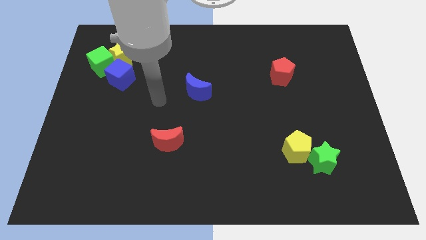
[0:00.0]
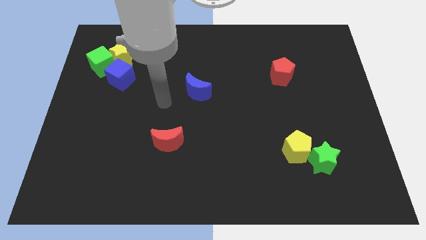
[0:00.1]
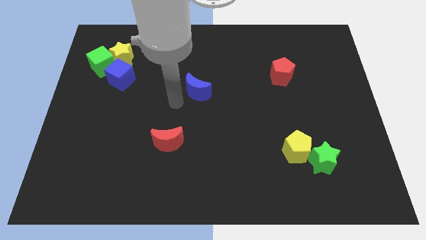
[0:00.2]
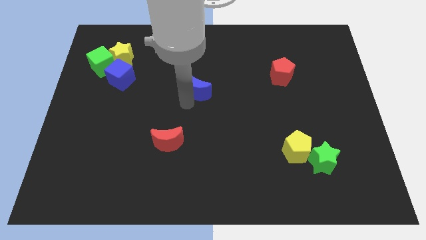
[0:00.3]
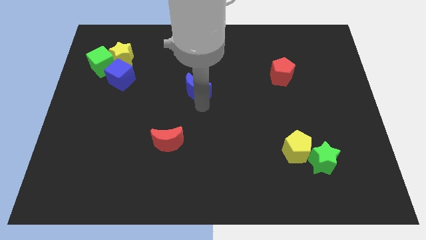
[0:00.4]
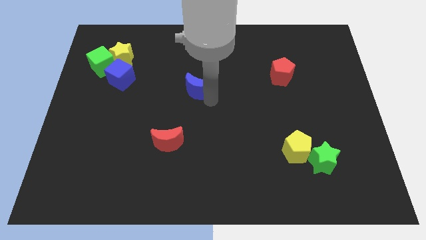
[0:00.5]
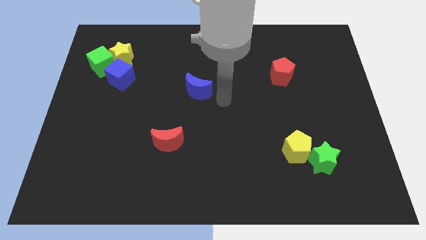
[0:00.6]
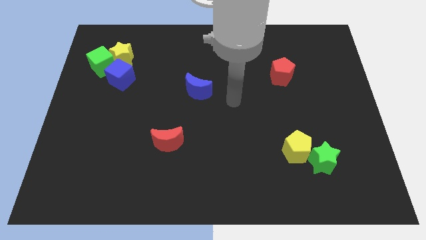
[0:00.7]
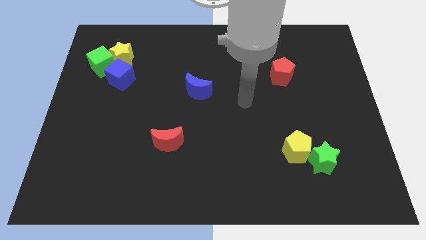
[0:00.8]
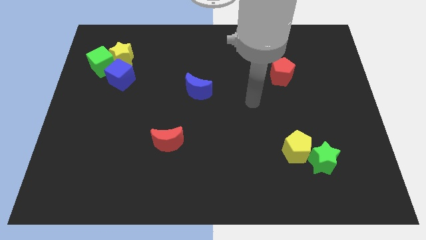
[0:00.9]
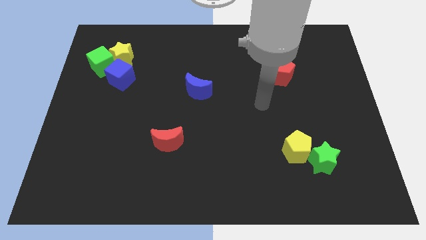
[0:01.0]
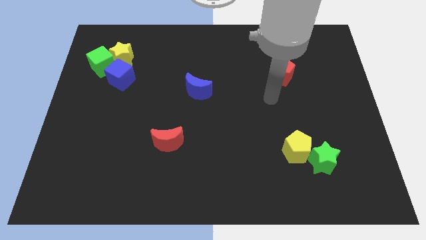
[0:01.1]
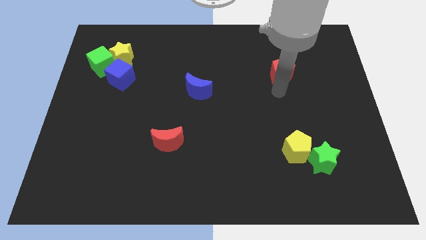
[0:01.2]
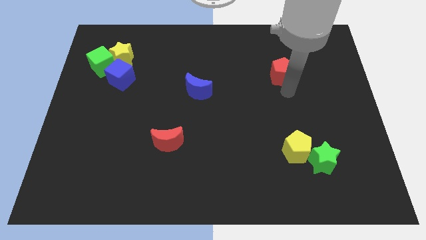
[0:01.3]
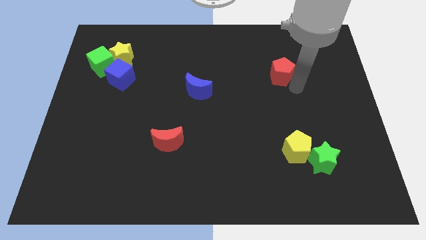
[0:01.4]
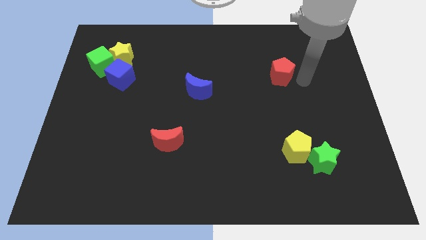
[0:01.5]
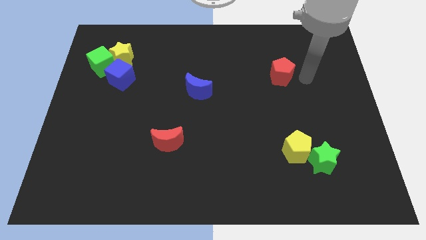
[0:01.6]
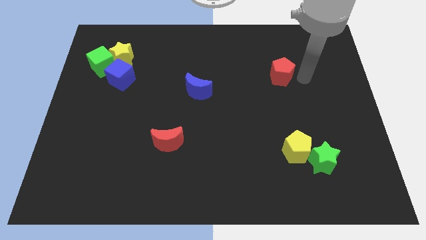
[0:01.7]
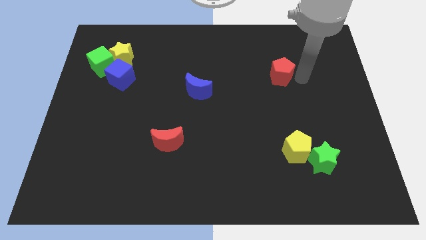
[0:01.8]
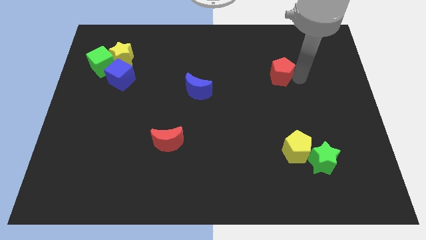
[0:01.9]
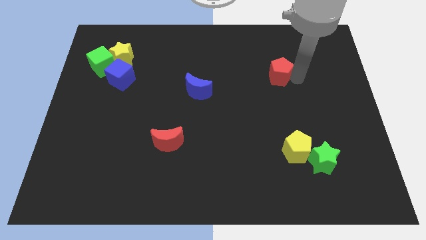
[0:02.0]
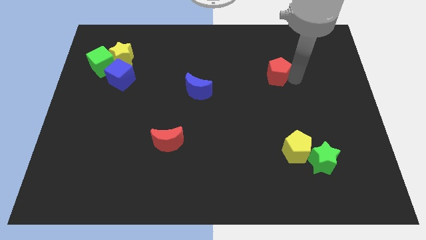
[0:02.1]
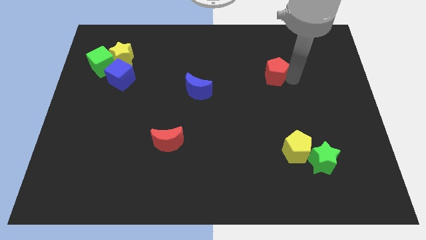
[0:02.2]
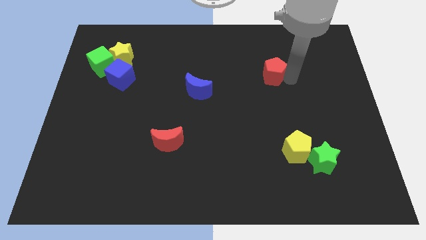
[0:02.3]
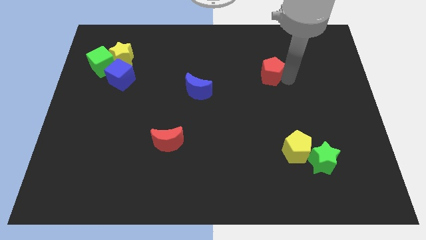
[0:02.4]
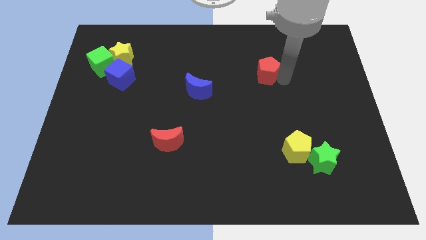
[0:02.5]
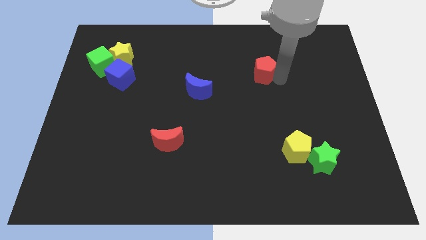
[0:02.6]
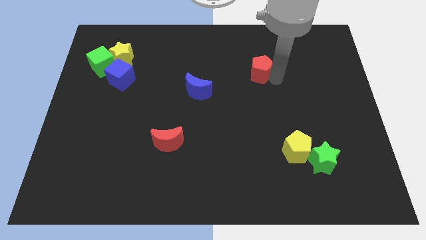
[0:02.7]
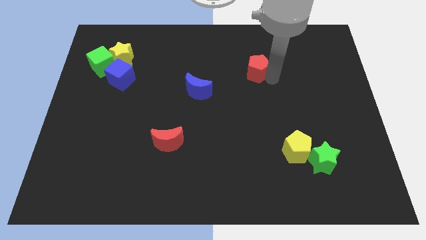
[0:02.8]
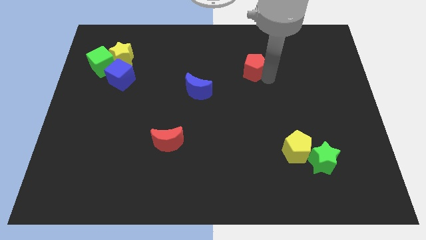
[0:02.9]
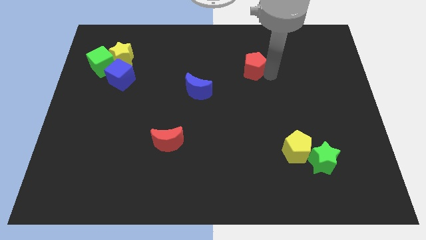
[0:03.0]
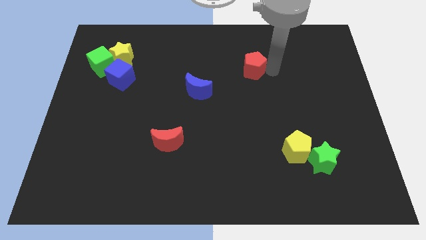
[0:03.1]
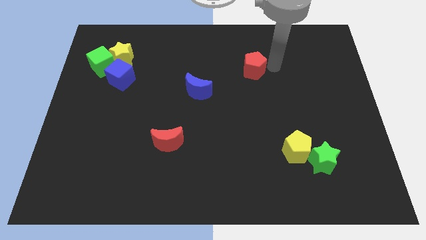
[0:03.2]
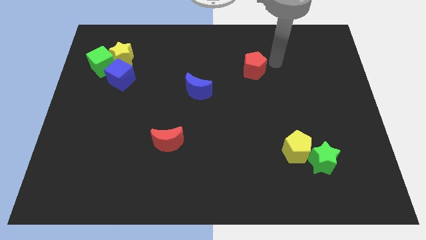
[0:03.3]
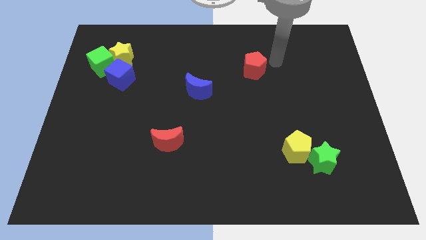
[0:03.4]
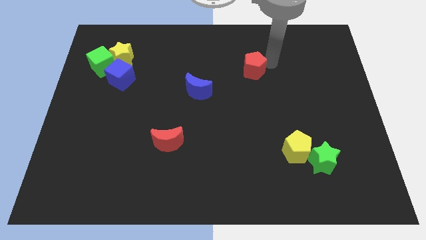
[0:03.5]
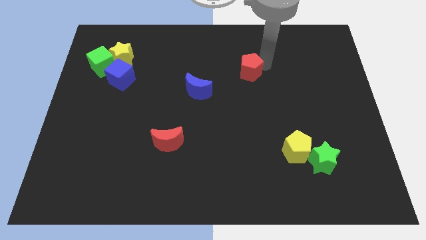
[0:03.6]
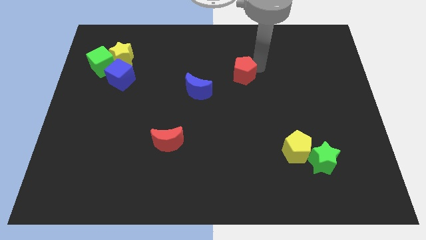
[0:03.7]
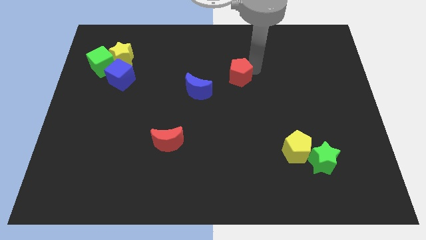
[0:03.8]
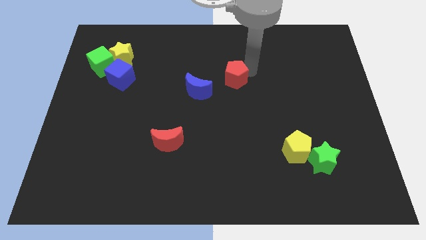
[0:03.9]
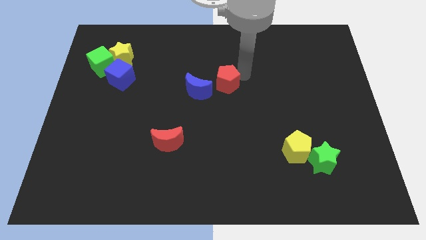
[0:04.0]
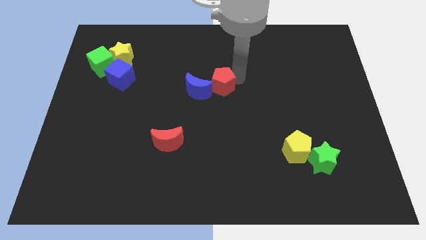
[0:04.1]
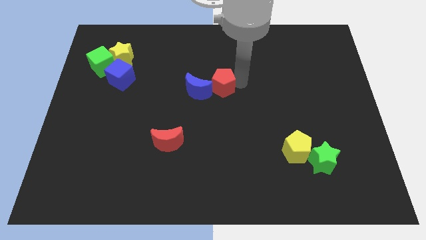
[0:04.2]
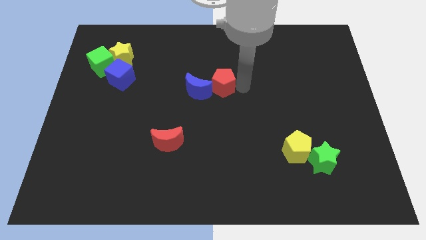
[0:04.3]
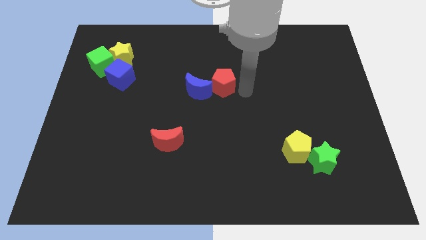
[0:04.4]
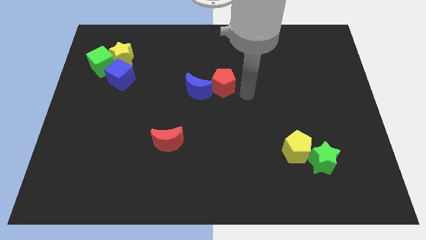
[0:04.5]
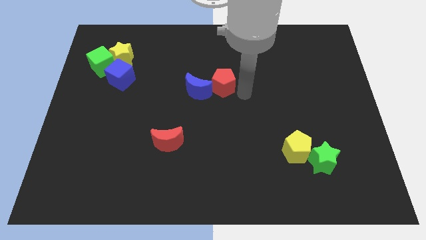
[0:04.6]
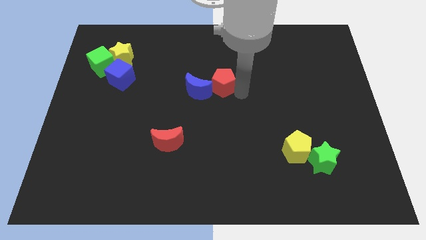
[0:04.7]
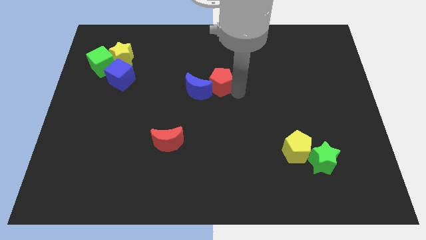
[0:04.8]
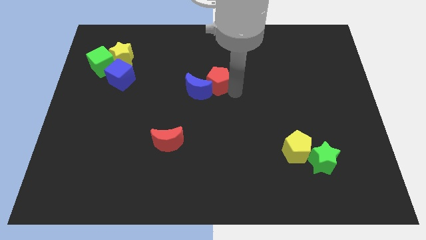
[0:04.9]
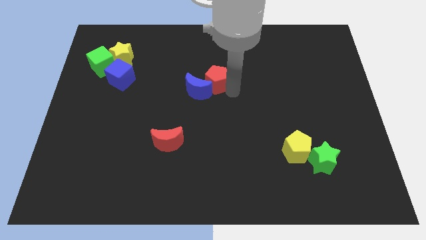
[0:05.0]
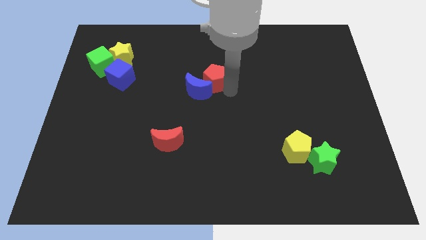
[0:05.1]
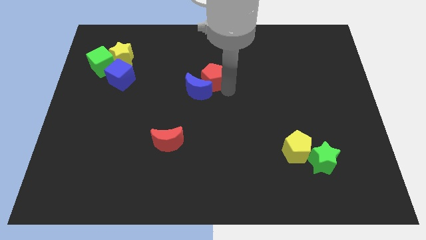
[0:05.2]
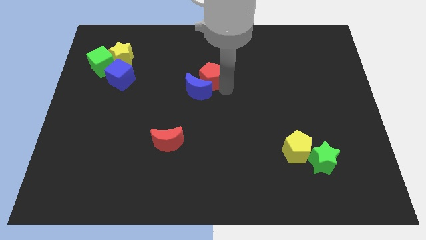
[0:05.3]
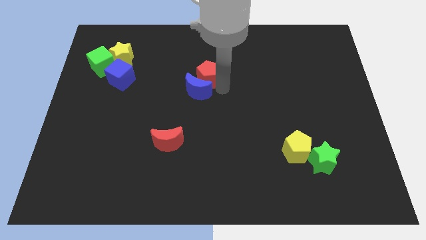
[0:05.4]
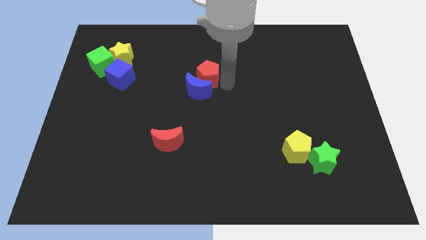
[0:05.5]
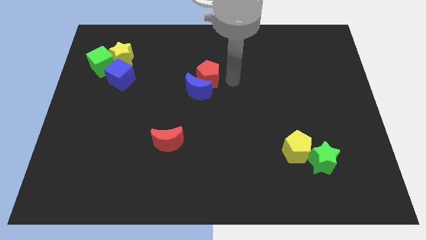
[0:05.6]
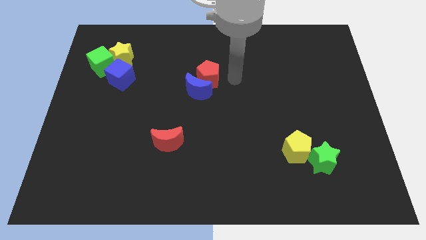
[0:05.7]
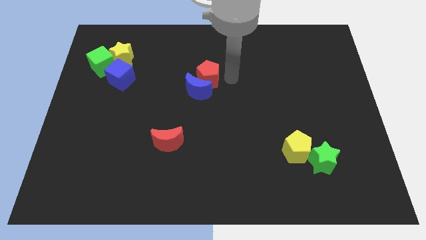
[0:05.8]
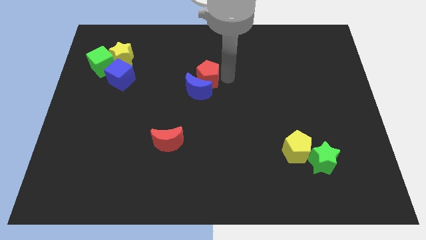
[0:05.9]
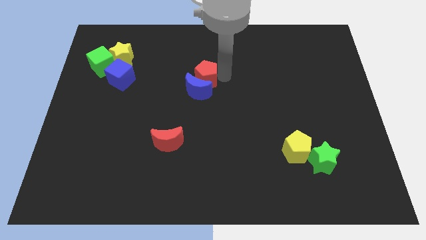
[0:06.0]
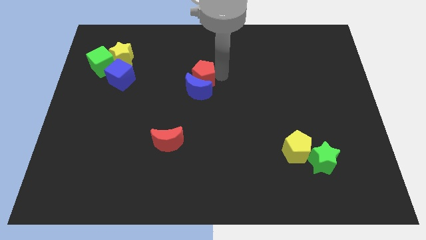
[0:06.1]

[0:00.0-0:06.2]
slide the red pentagon to the top left of the blue moon

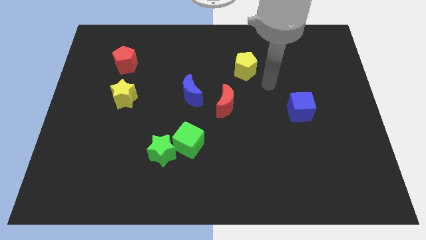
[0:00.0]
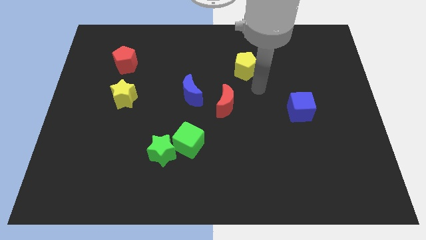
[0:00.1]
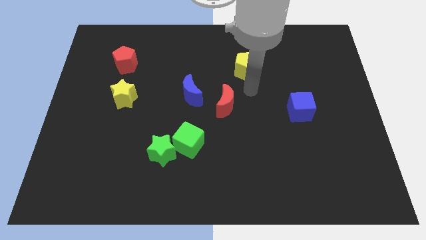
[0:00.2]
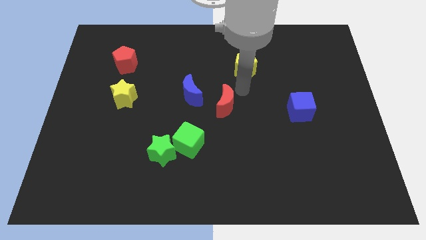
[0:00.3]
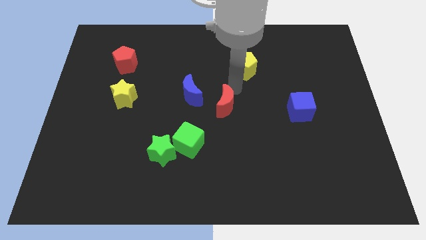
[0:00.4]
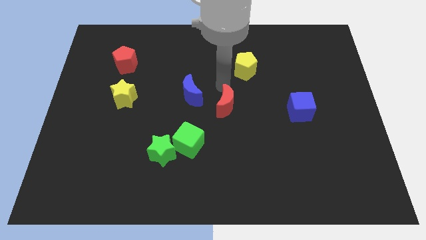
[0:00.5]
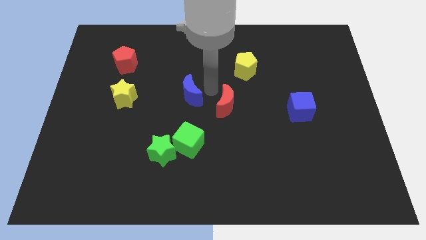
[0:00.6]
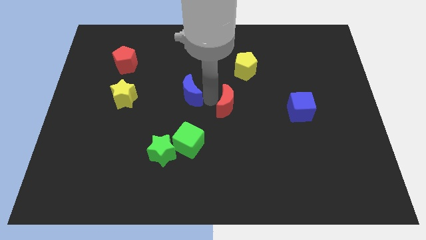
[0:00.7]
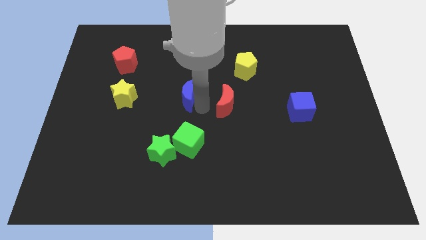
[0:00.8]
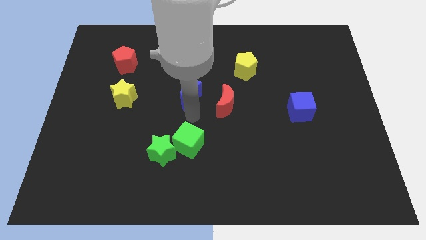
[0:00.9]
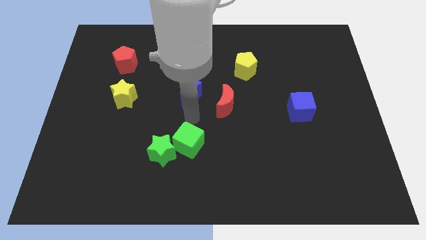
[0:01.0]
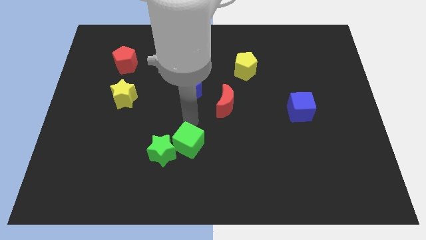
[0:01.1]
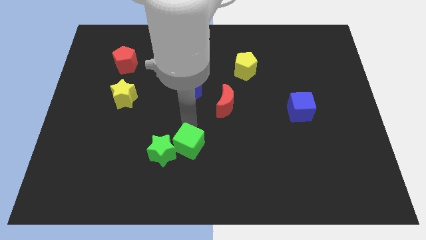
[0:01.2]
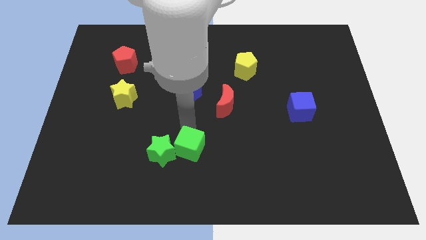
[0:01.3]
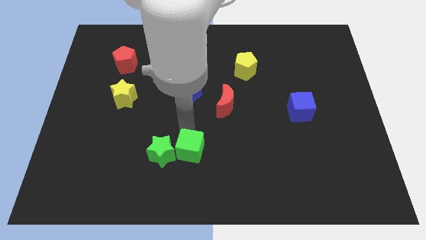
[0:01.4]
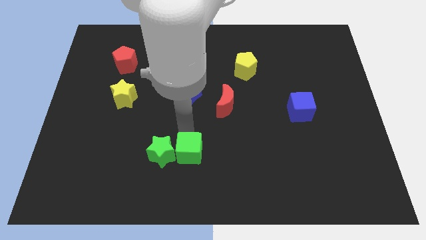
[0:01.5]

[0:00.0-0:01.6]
push the green cube diagonally down and to the right of the green star
